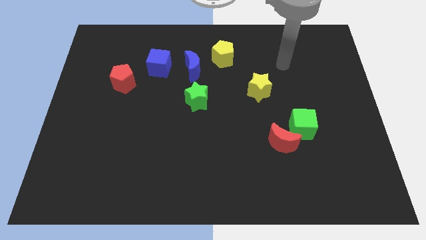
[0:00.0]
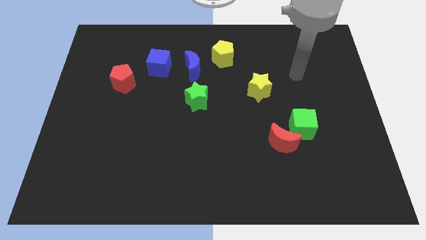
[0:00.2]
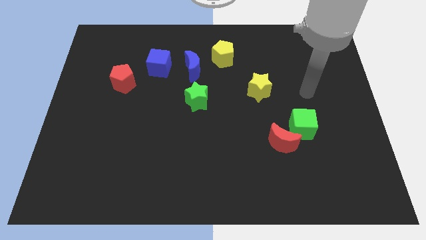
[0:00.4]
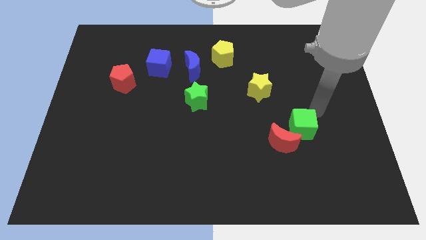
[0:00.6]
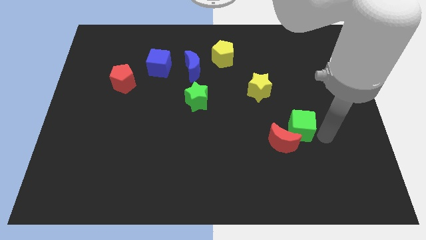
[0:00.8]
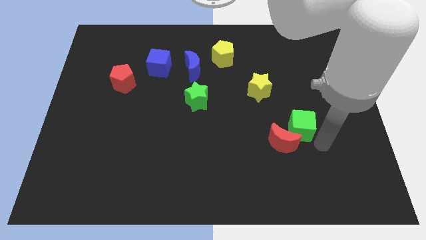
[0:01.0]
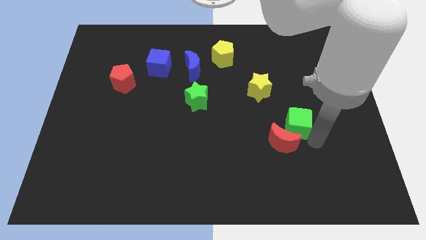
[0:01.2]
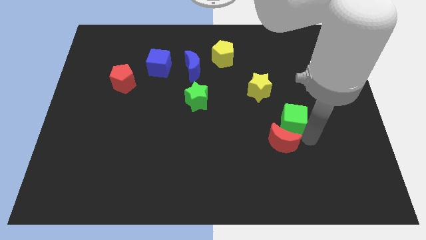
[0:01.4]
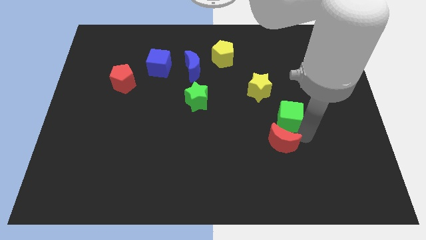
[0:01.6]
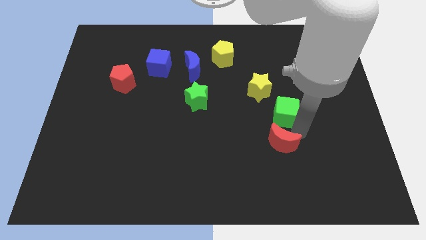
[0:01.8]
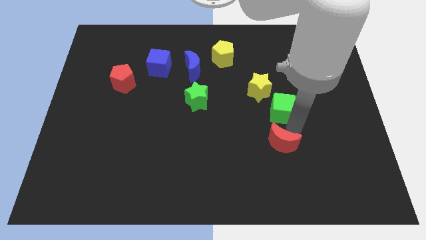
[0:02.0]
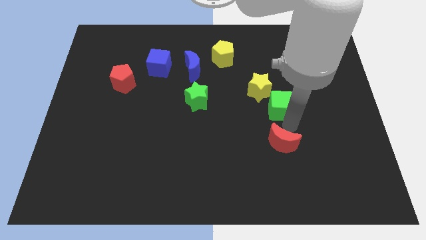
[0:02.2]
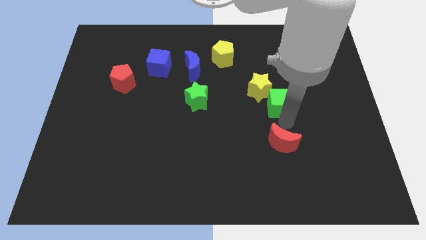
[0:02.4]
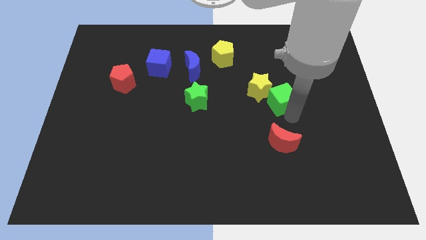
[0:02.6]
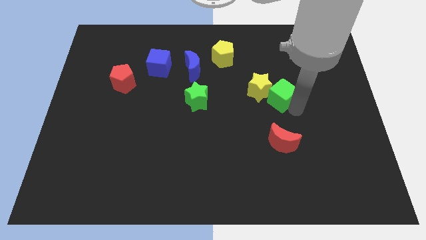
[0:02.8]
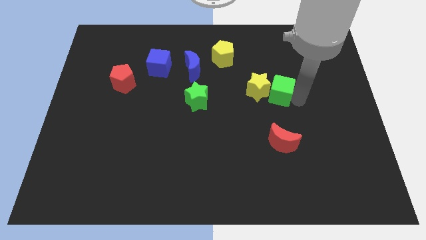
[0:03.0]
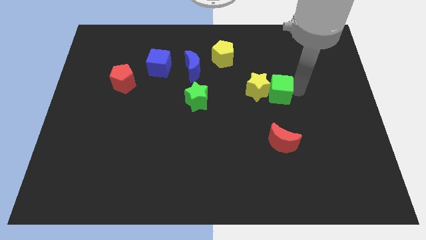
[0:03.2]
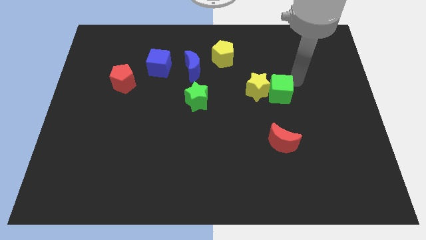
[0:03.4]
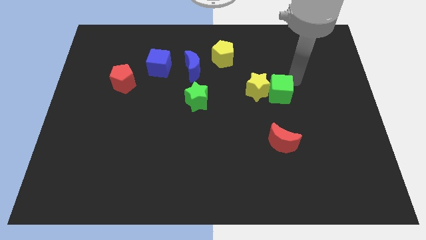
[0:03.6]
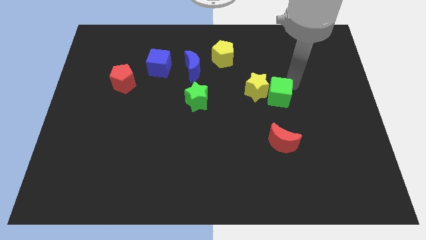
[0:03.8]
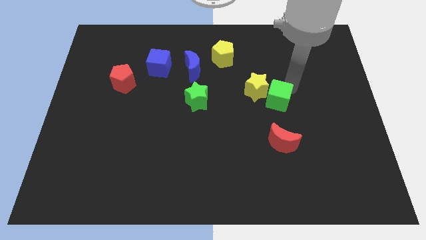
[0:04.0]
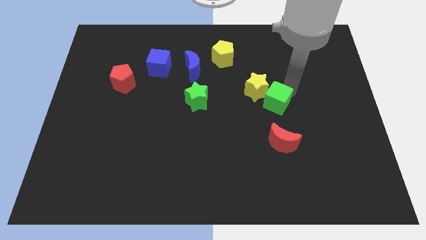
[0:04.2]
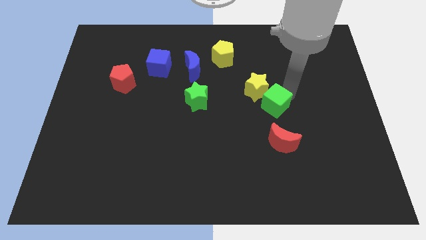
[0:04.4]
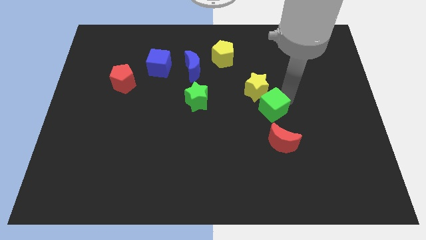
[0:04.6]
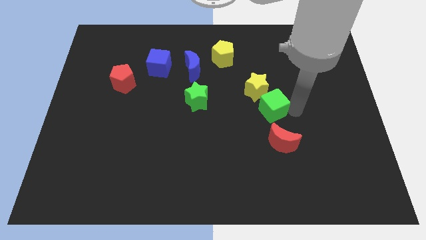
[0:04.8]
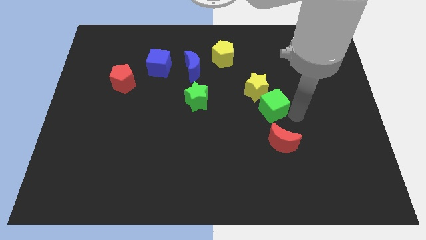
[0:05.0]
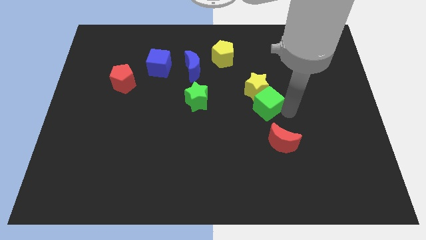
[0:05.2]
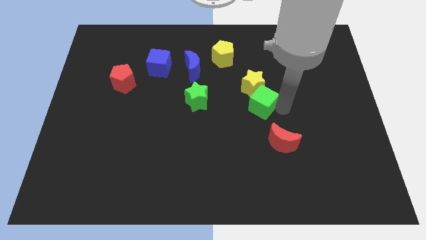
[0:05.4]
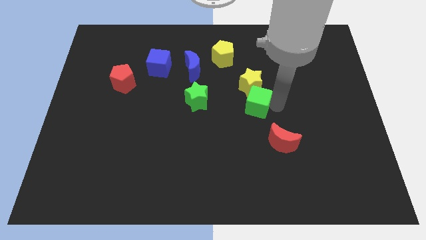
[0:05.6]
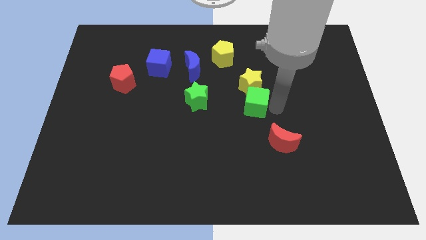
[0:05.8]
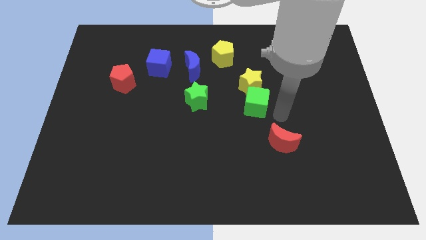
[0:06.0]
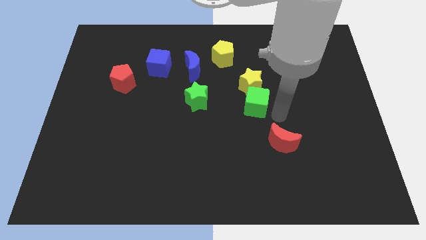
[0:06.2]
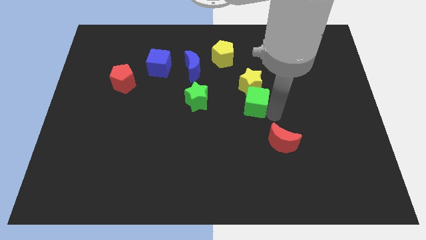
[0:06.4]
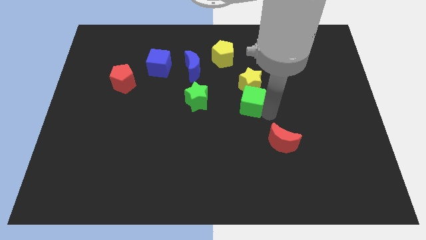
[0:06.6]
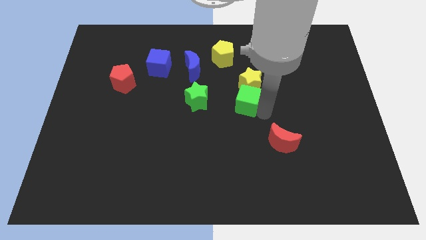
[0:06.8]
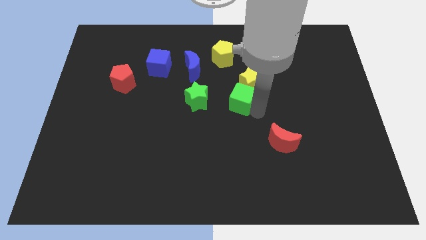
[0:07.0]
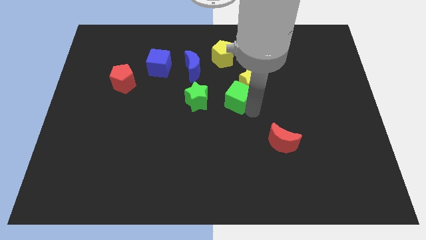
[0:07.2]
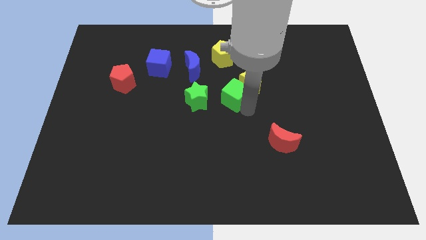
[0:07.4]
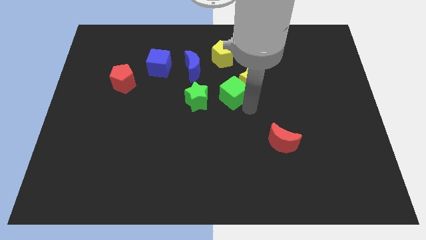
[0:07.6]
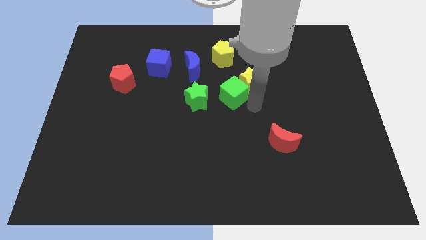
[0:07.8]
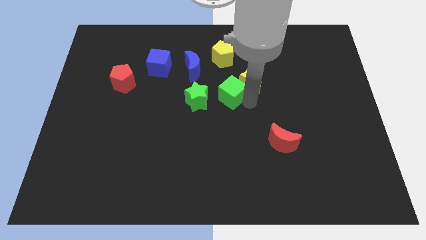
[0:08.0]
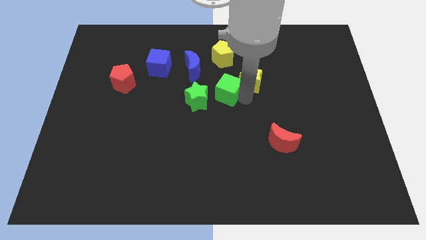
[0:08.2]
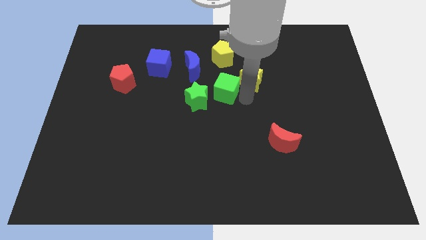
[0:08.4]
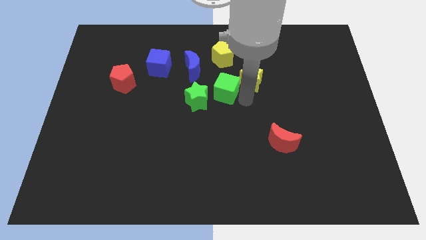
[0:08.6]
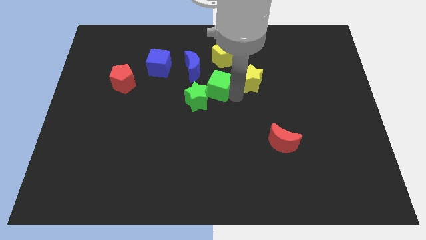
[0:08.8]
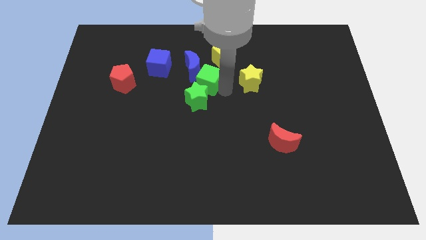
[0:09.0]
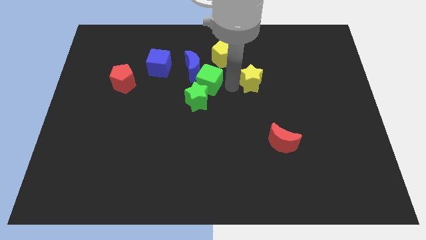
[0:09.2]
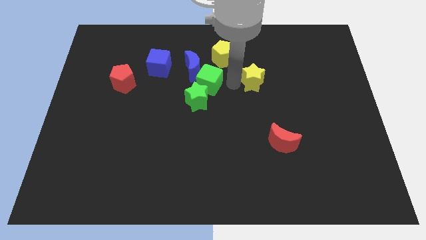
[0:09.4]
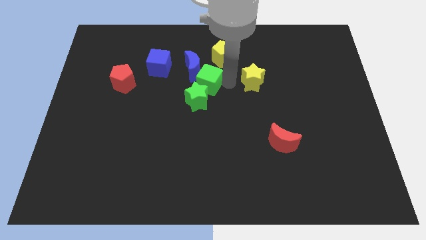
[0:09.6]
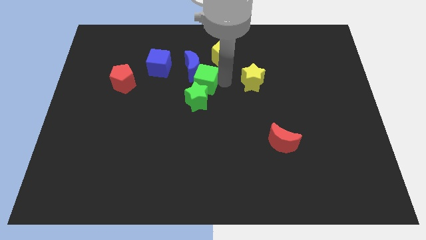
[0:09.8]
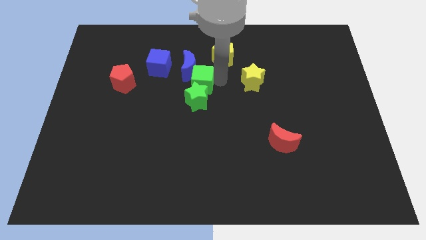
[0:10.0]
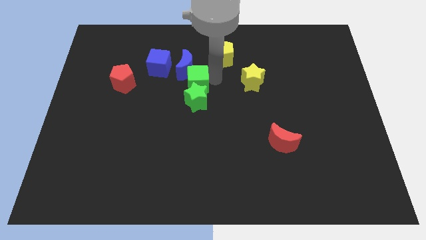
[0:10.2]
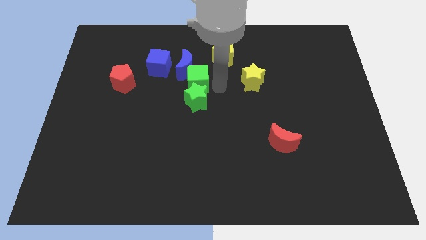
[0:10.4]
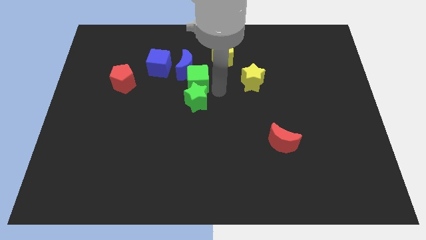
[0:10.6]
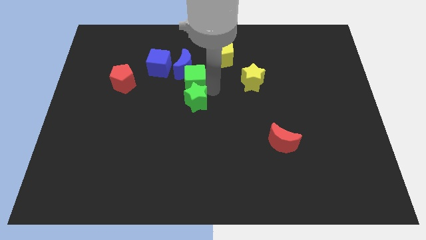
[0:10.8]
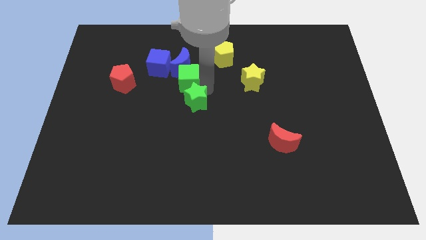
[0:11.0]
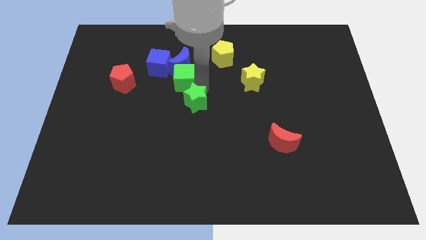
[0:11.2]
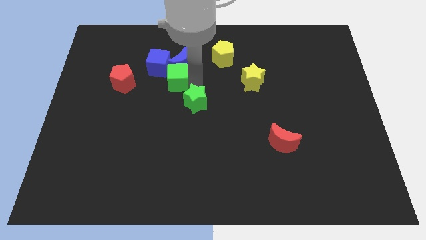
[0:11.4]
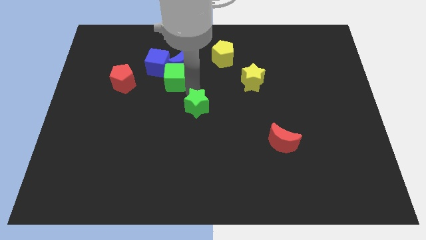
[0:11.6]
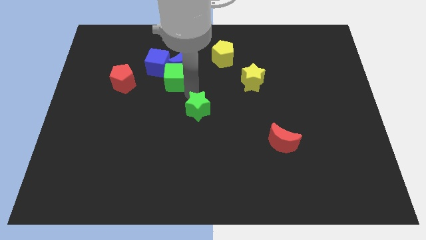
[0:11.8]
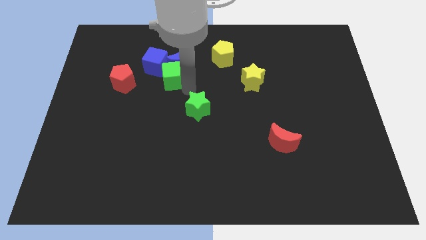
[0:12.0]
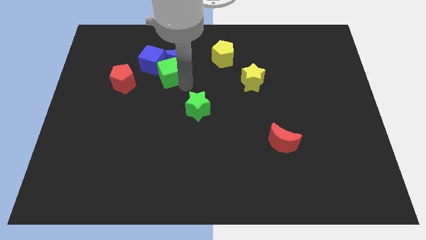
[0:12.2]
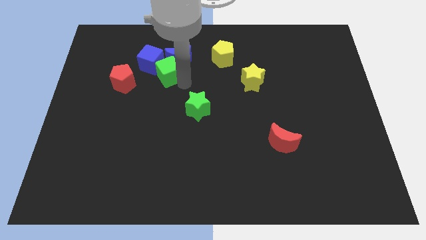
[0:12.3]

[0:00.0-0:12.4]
move the green cube to the blue cube

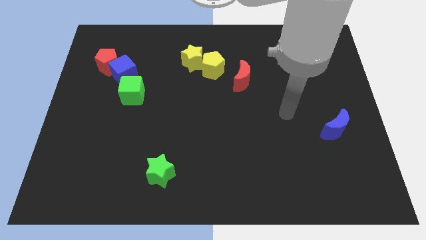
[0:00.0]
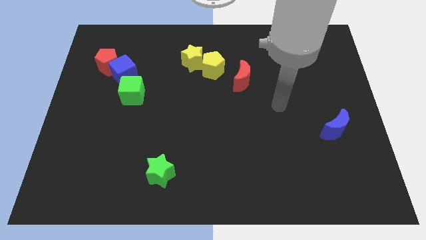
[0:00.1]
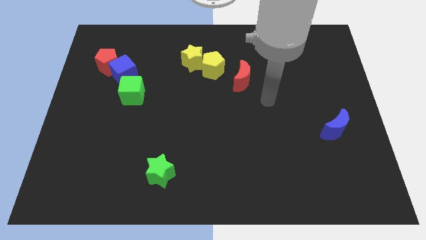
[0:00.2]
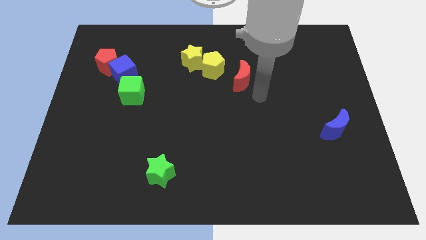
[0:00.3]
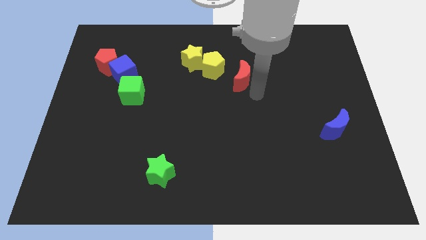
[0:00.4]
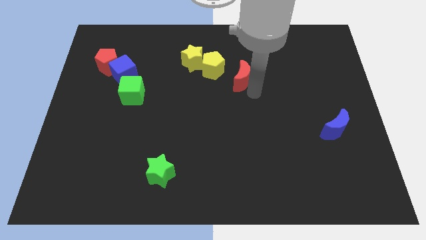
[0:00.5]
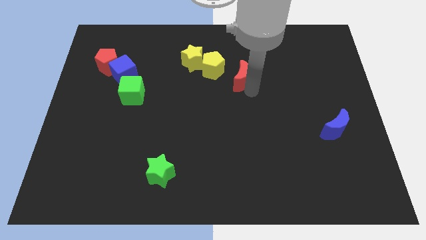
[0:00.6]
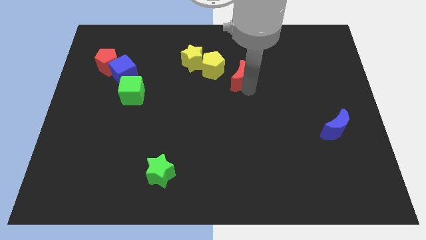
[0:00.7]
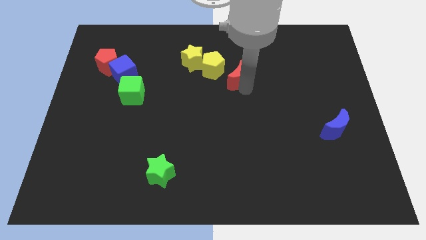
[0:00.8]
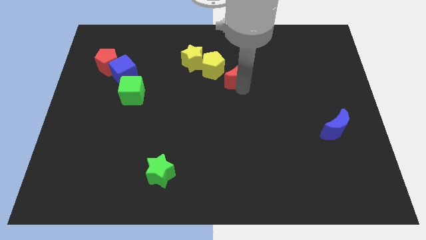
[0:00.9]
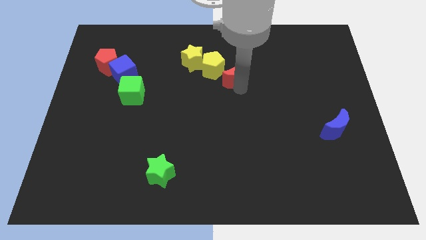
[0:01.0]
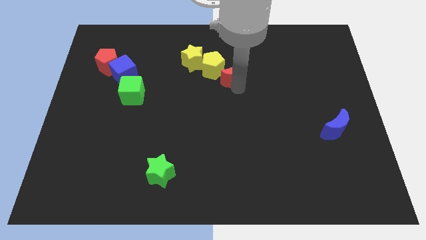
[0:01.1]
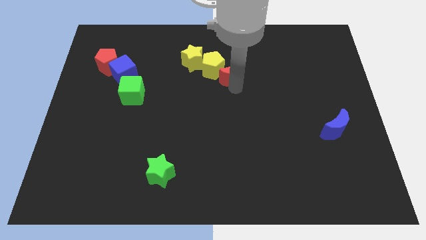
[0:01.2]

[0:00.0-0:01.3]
put the red moon close to the yellow pentagon

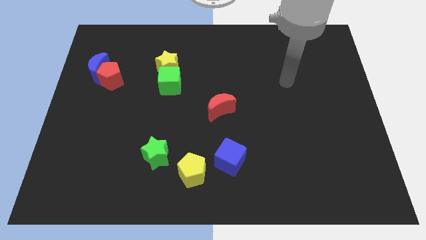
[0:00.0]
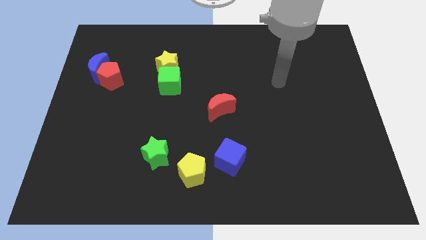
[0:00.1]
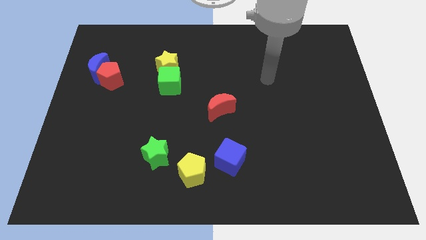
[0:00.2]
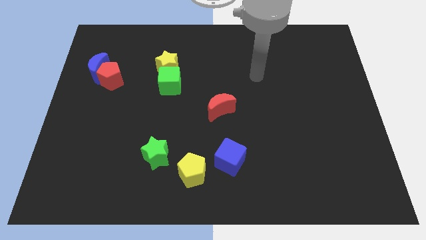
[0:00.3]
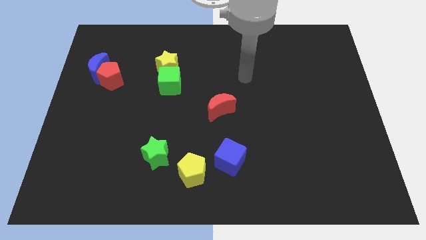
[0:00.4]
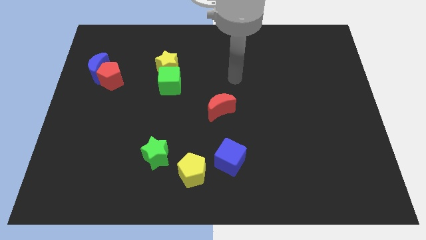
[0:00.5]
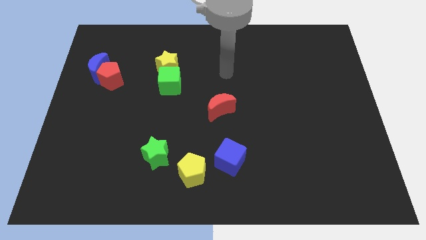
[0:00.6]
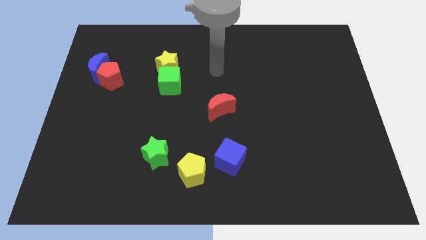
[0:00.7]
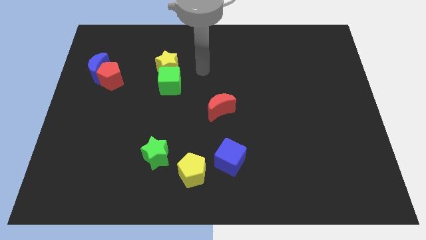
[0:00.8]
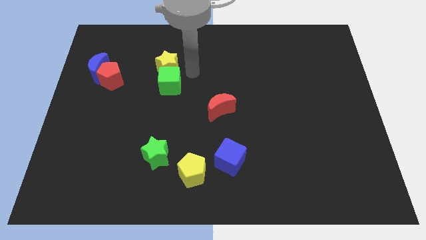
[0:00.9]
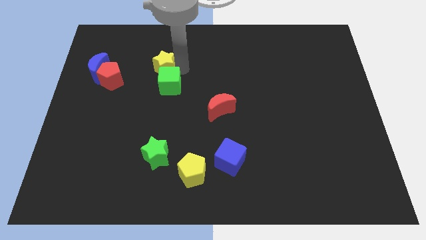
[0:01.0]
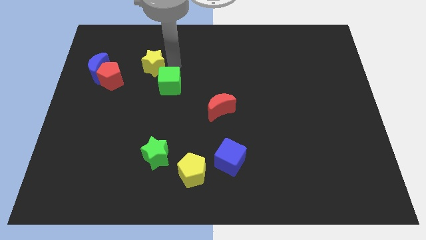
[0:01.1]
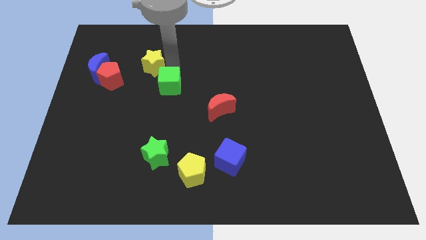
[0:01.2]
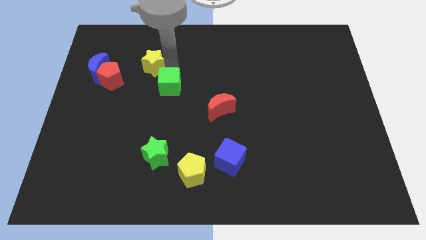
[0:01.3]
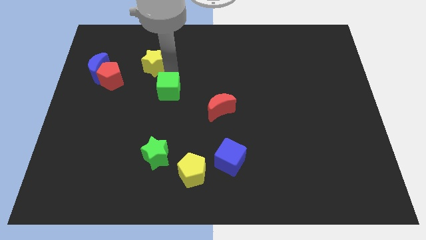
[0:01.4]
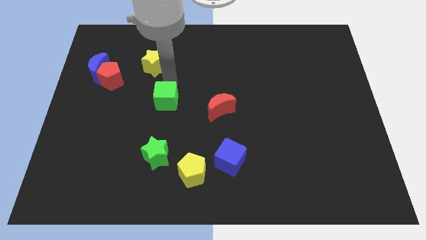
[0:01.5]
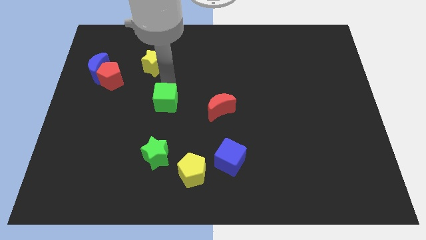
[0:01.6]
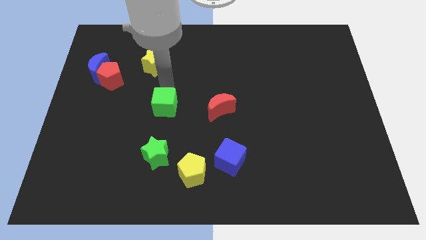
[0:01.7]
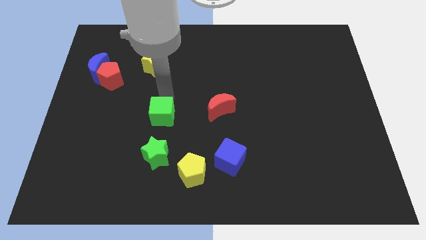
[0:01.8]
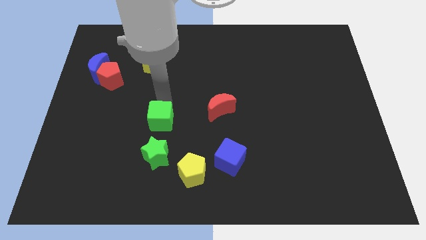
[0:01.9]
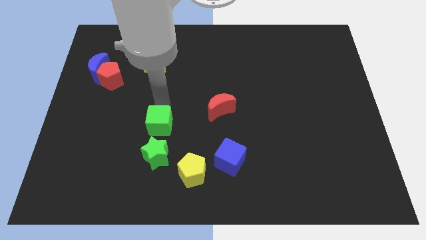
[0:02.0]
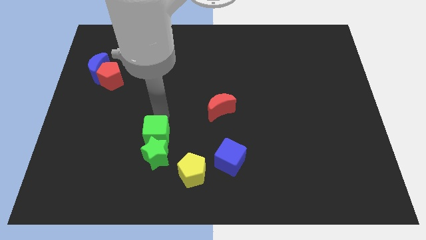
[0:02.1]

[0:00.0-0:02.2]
slide the green cube close to the green star
